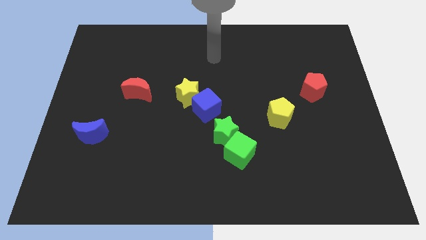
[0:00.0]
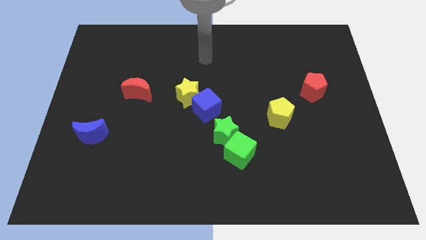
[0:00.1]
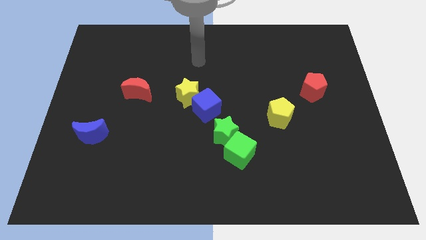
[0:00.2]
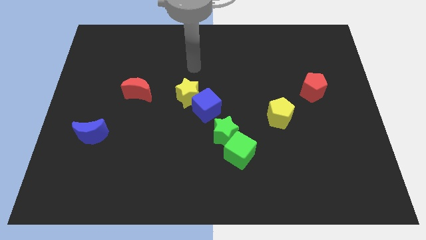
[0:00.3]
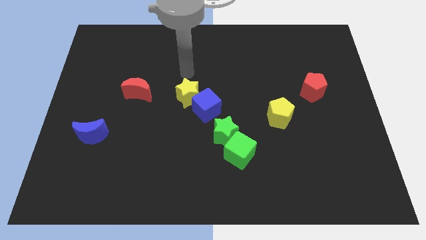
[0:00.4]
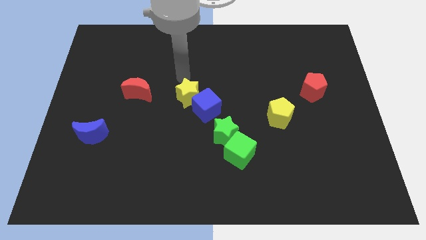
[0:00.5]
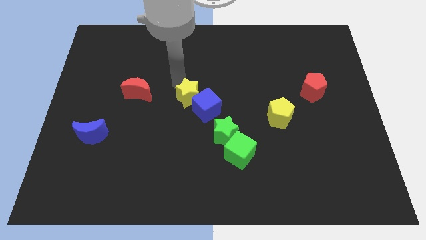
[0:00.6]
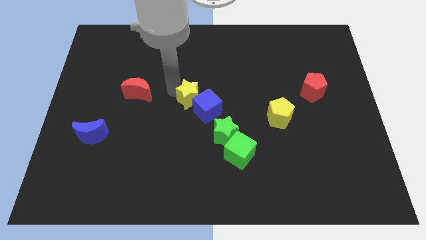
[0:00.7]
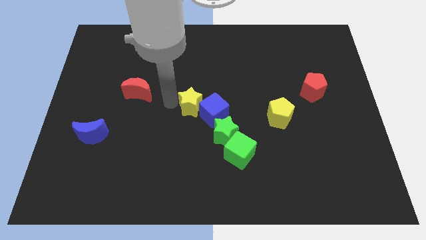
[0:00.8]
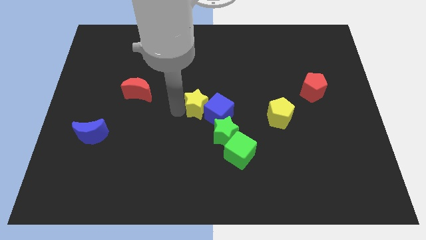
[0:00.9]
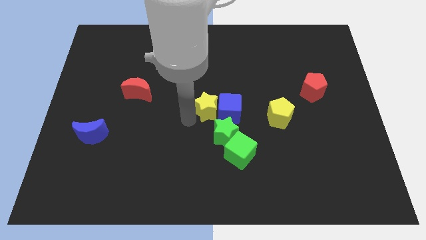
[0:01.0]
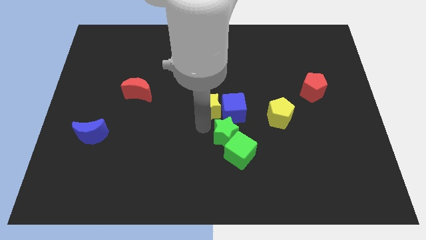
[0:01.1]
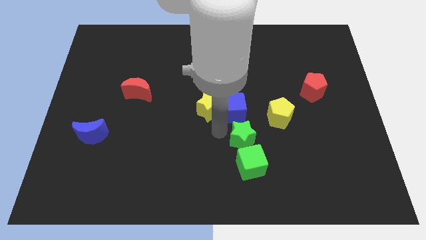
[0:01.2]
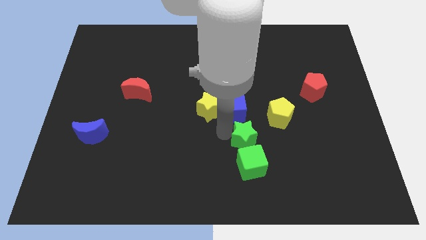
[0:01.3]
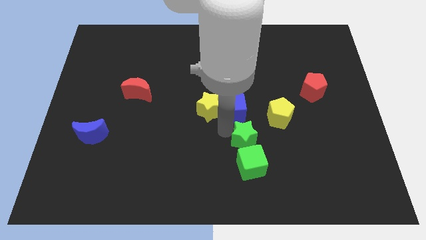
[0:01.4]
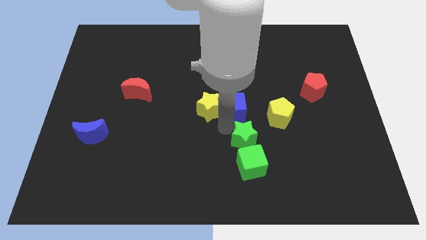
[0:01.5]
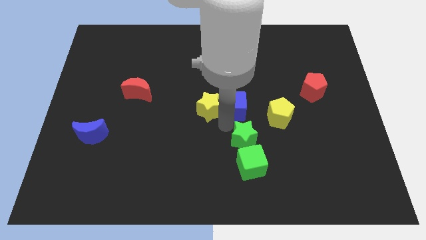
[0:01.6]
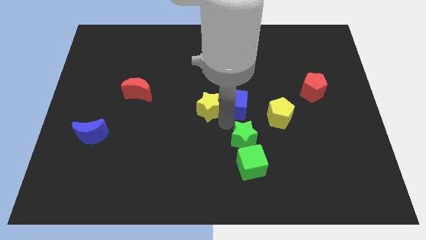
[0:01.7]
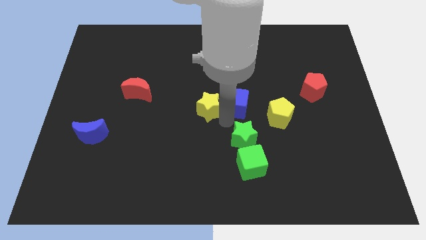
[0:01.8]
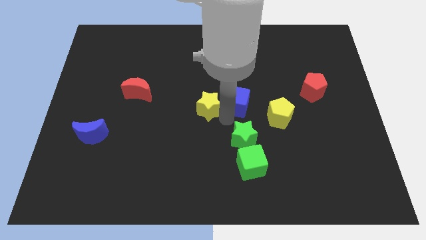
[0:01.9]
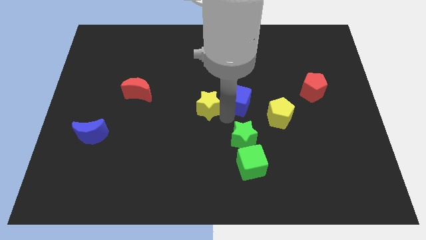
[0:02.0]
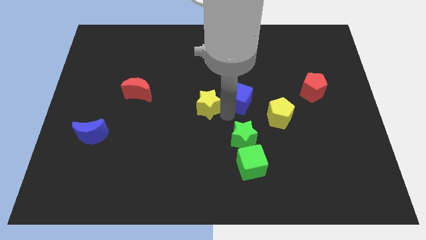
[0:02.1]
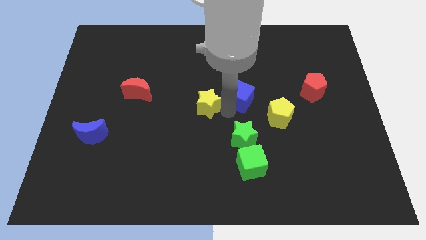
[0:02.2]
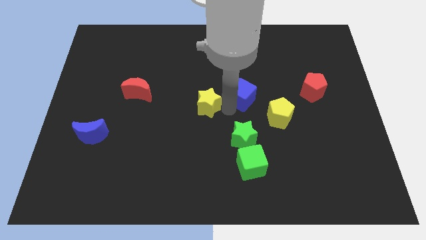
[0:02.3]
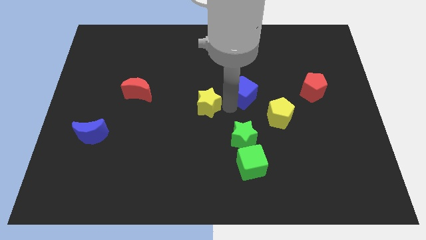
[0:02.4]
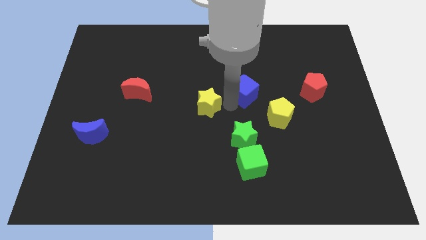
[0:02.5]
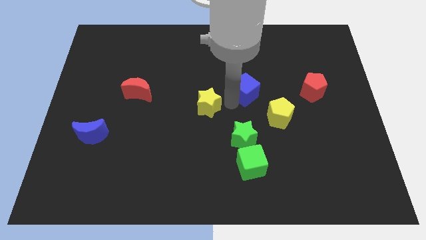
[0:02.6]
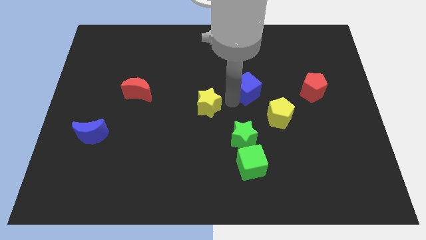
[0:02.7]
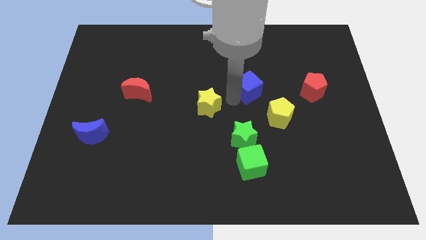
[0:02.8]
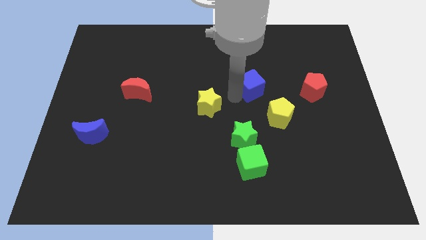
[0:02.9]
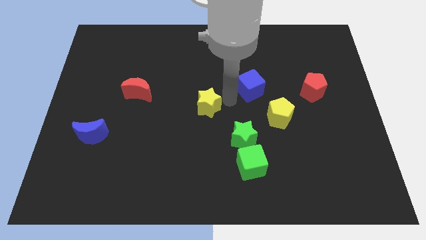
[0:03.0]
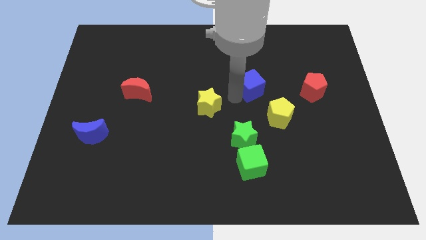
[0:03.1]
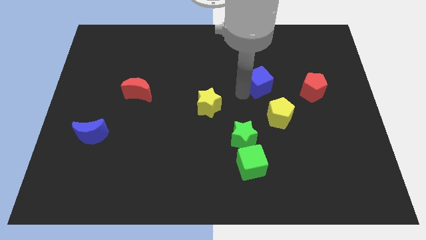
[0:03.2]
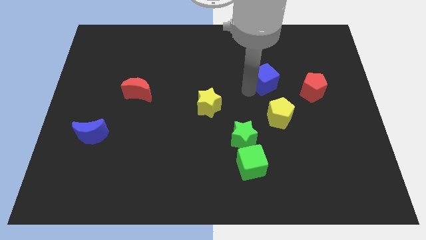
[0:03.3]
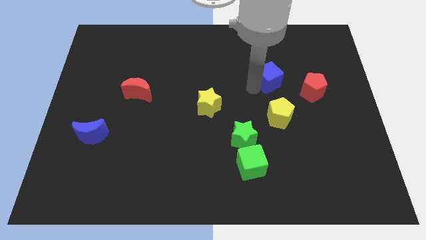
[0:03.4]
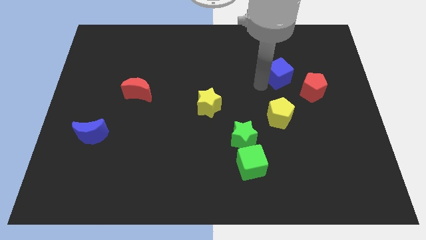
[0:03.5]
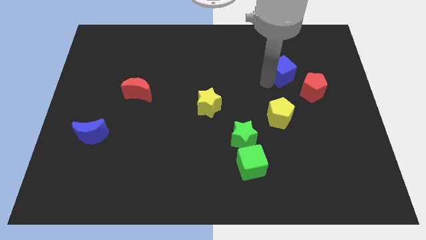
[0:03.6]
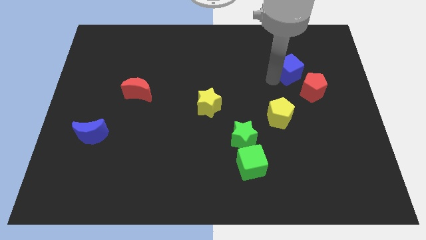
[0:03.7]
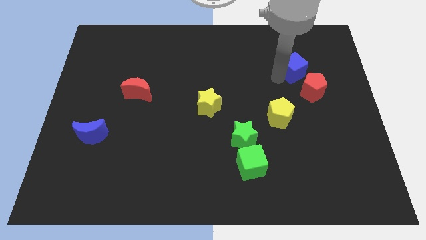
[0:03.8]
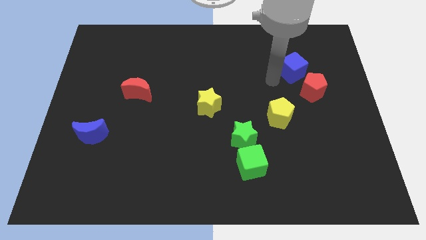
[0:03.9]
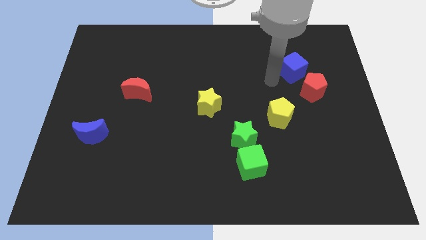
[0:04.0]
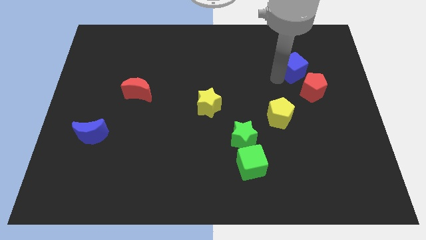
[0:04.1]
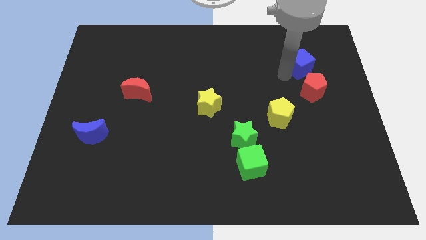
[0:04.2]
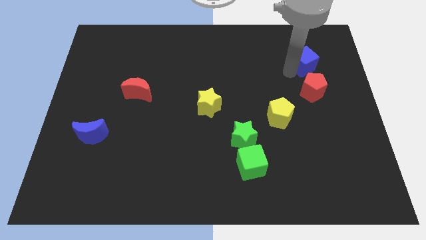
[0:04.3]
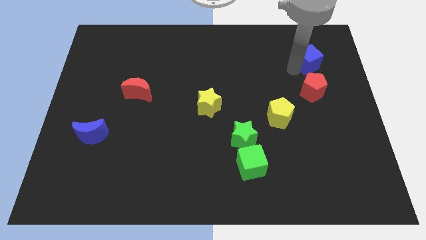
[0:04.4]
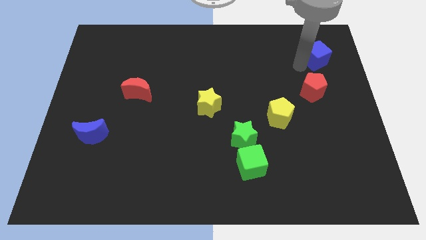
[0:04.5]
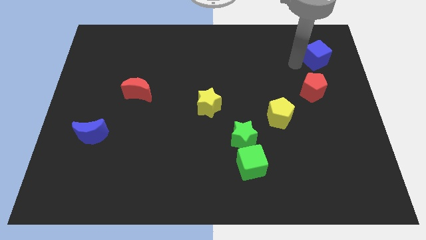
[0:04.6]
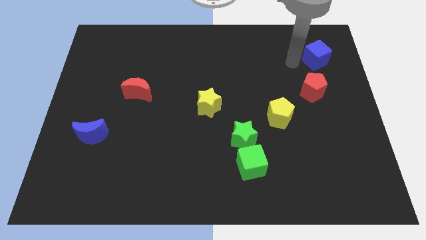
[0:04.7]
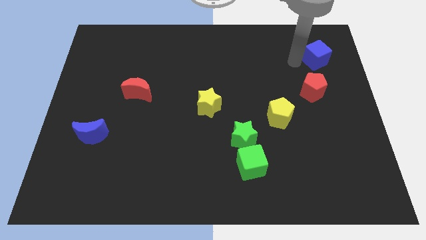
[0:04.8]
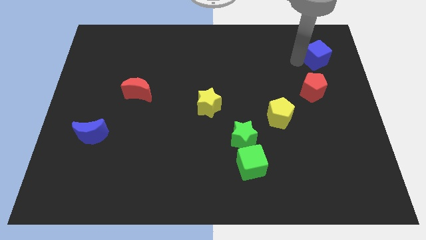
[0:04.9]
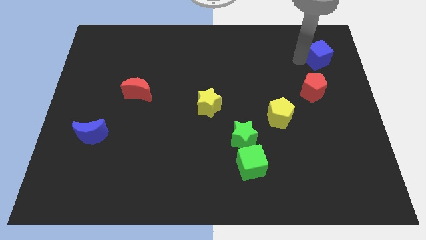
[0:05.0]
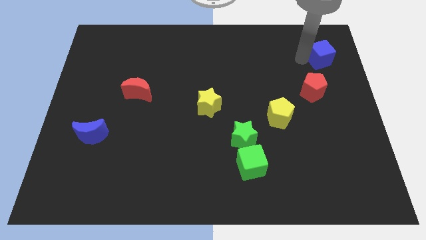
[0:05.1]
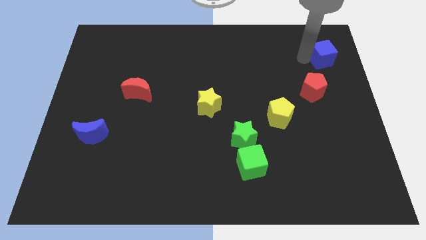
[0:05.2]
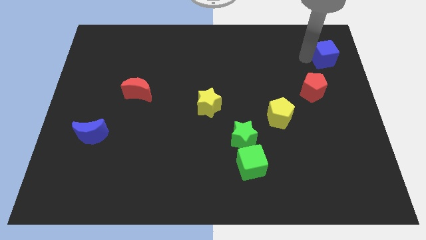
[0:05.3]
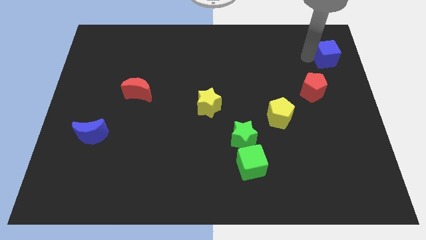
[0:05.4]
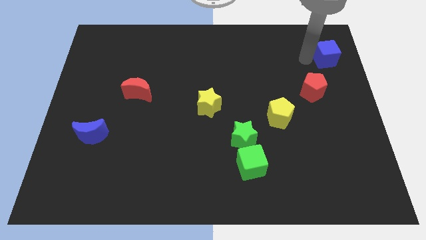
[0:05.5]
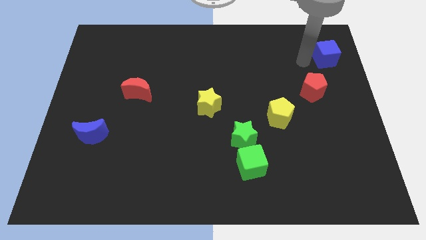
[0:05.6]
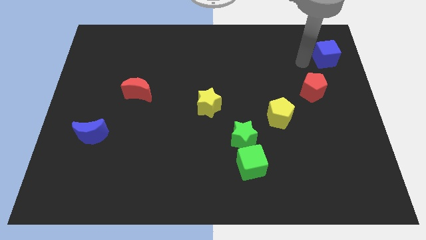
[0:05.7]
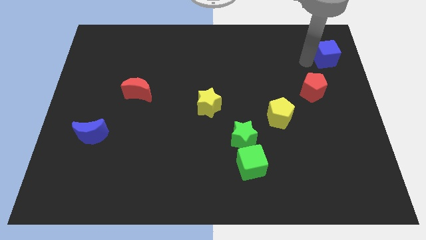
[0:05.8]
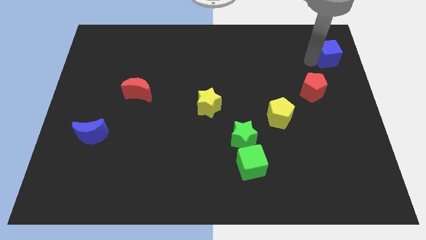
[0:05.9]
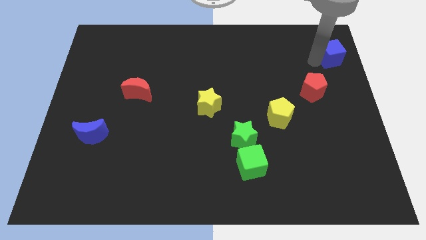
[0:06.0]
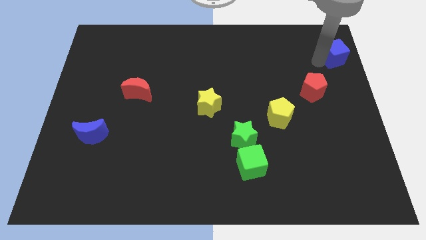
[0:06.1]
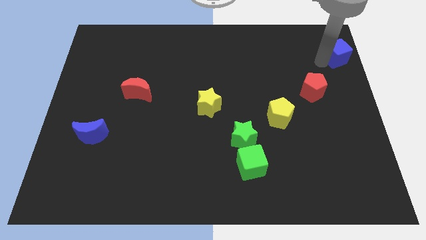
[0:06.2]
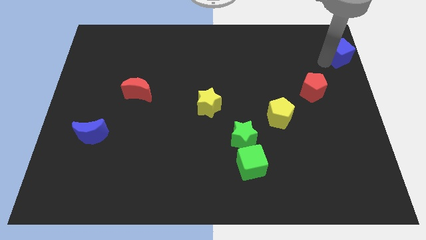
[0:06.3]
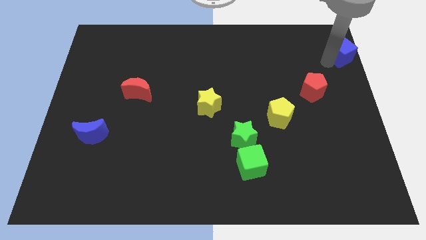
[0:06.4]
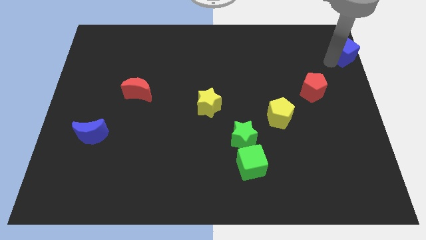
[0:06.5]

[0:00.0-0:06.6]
slide the blue cube to the top right of the board

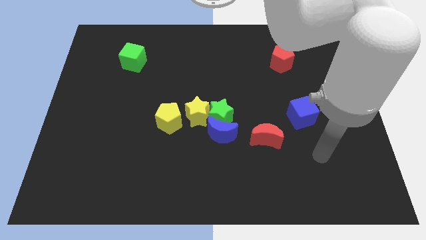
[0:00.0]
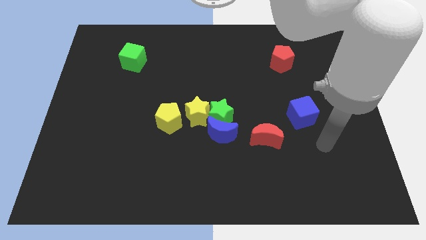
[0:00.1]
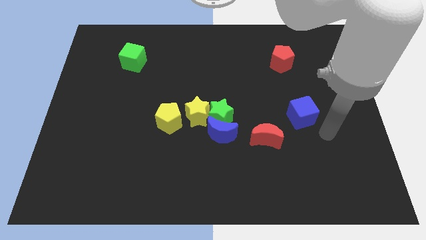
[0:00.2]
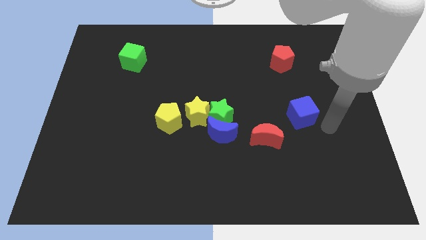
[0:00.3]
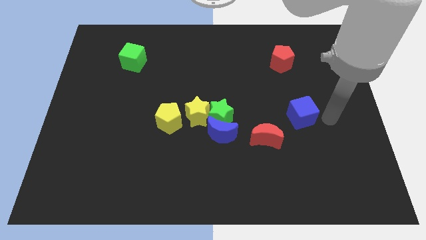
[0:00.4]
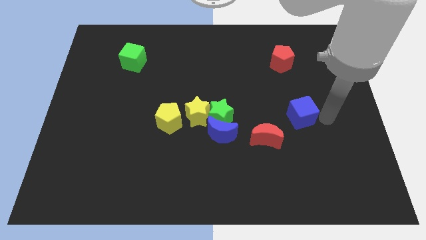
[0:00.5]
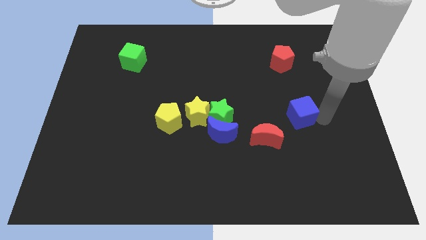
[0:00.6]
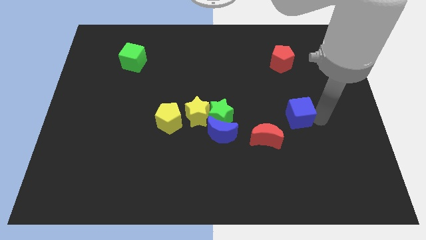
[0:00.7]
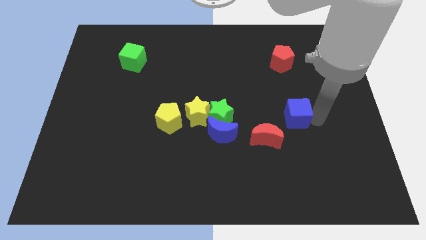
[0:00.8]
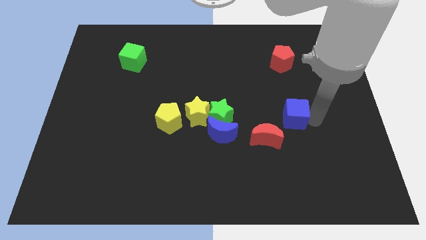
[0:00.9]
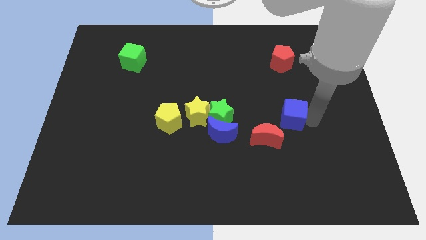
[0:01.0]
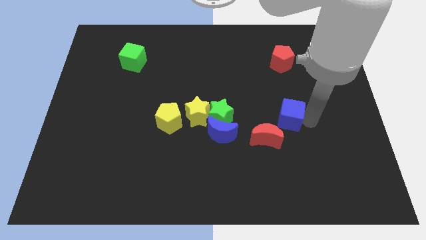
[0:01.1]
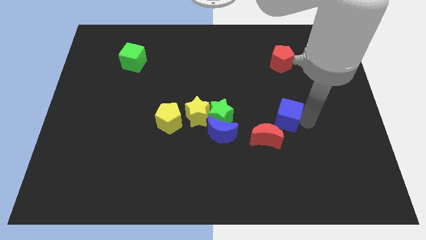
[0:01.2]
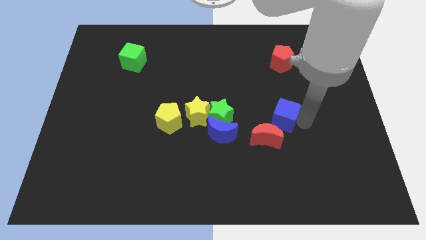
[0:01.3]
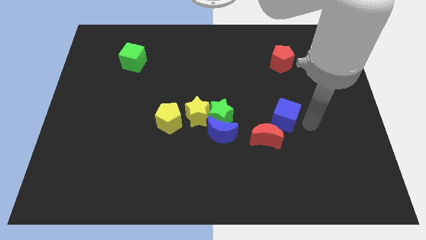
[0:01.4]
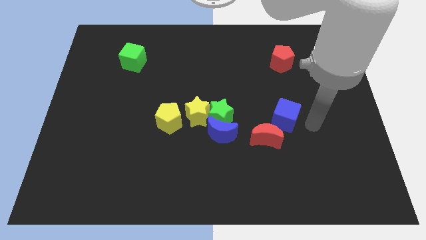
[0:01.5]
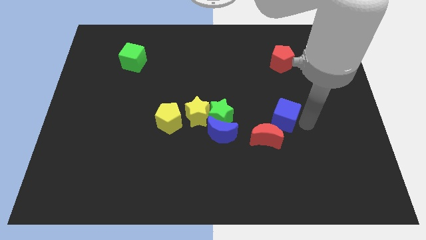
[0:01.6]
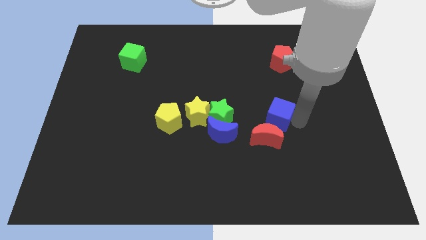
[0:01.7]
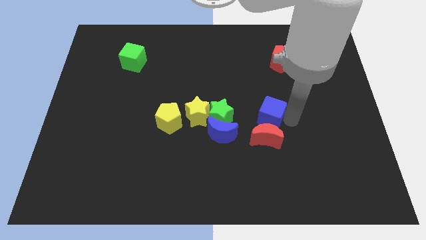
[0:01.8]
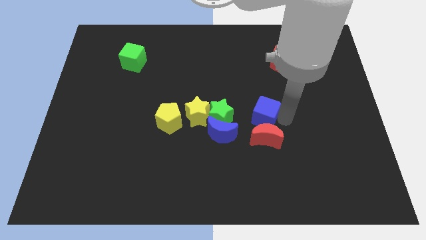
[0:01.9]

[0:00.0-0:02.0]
slide the blue cube to the center of the board
